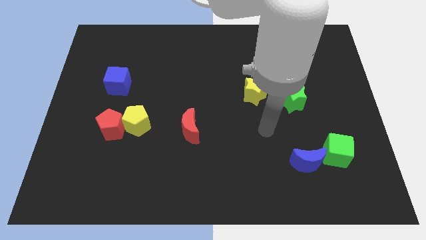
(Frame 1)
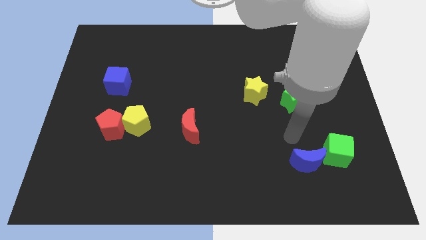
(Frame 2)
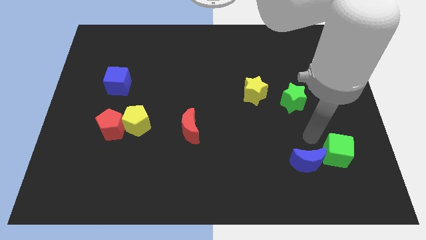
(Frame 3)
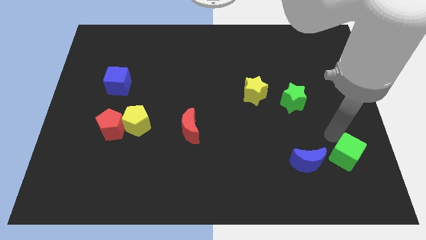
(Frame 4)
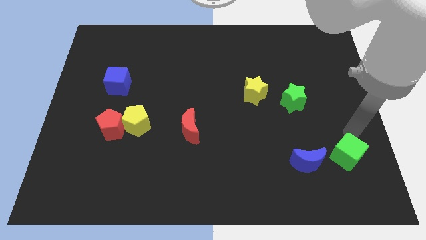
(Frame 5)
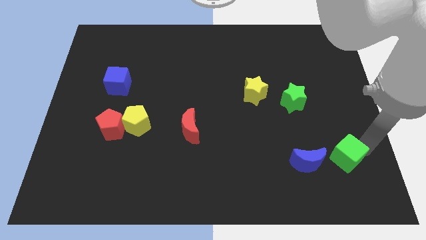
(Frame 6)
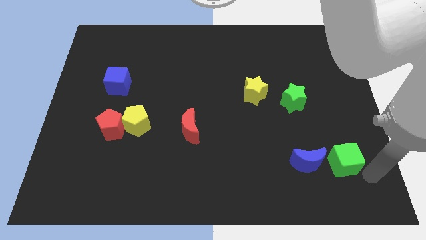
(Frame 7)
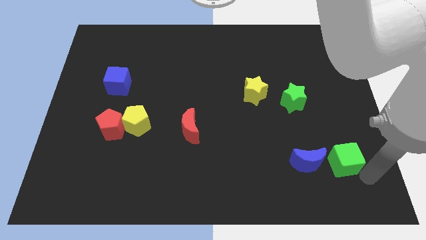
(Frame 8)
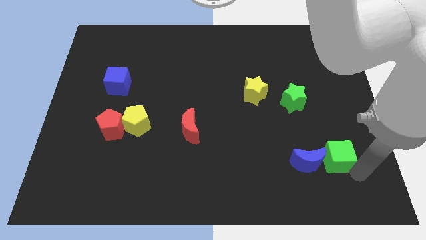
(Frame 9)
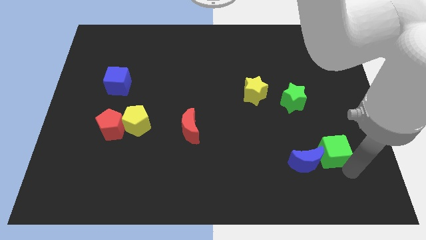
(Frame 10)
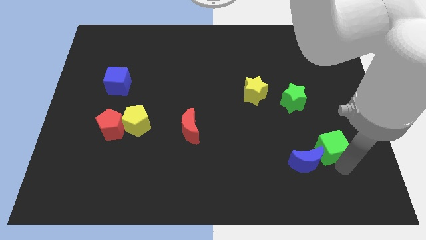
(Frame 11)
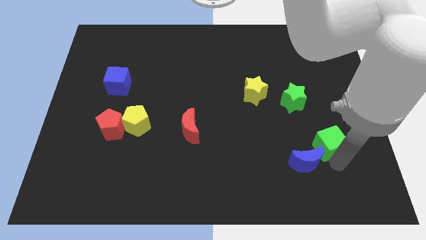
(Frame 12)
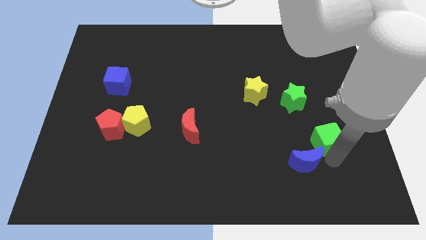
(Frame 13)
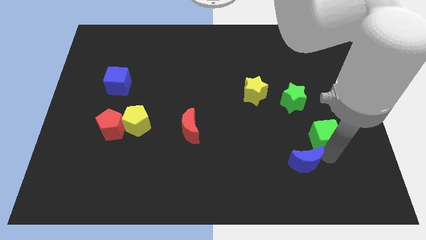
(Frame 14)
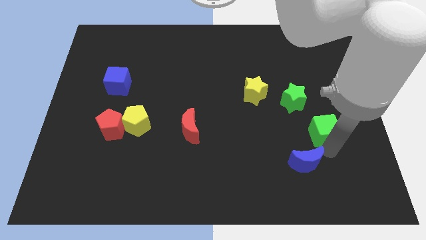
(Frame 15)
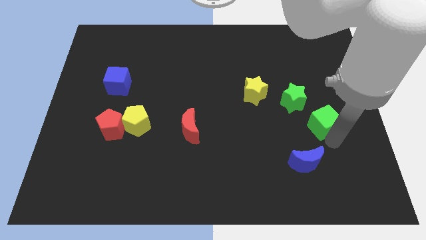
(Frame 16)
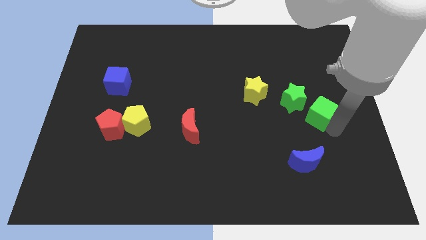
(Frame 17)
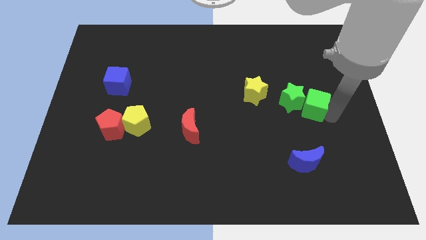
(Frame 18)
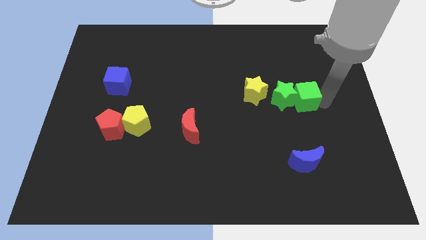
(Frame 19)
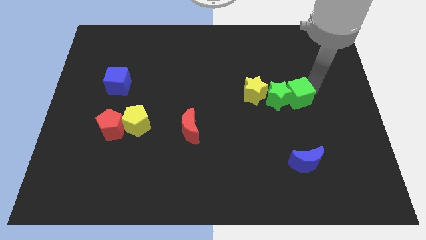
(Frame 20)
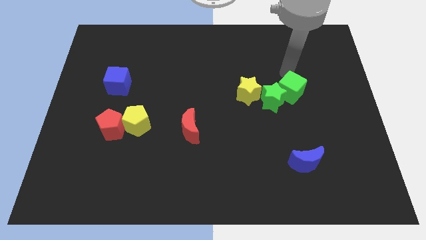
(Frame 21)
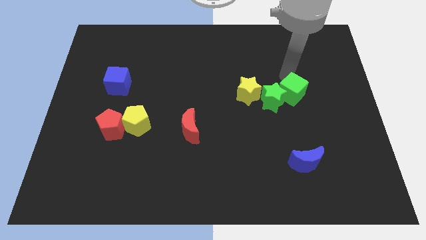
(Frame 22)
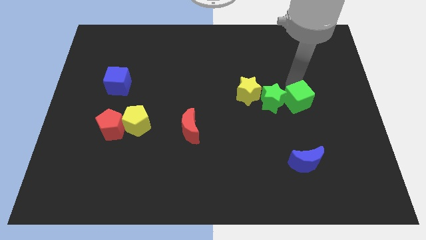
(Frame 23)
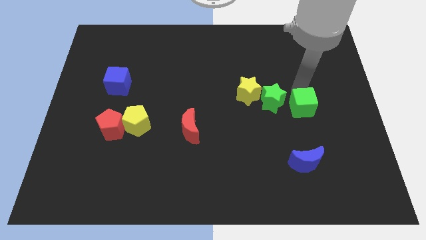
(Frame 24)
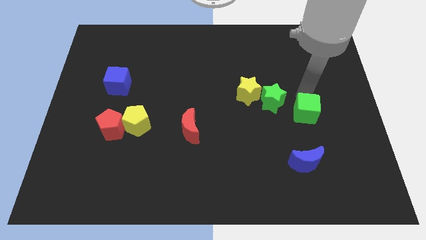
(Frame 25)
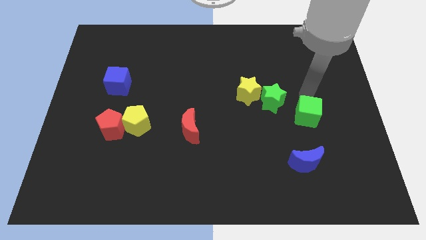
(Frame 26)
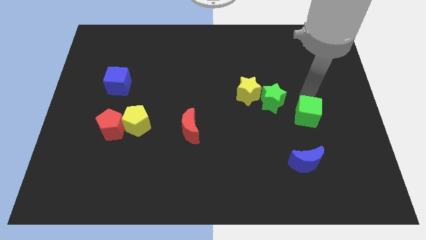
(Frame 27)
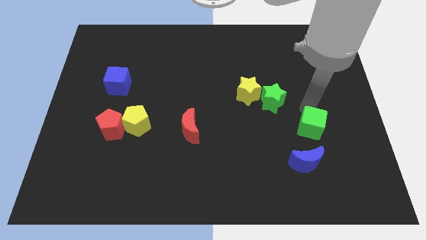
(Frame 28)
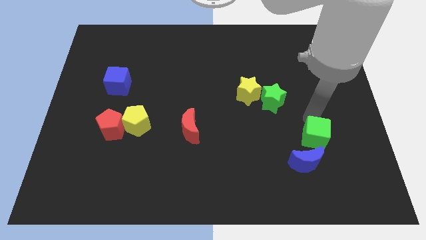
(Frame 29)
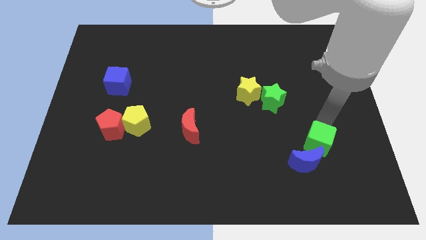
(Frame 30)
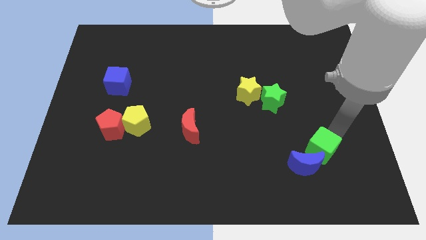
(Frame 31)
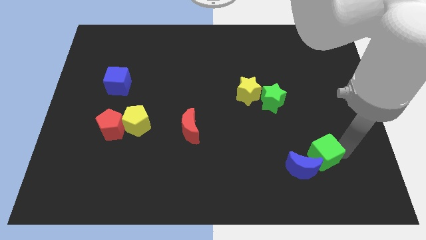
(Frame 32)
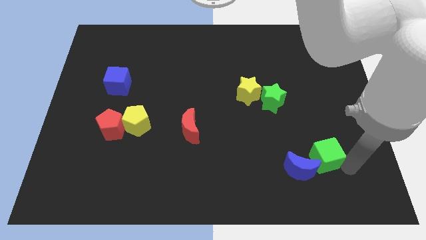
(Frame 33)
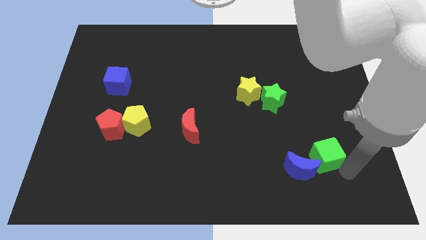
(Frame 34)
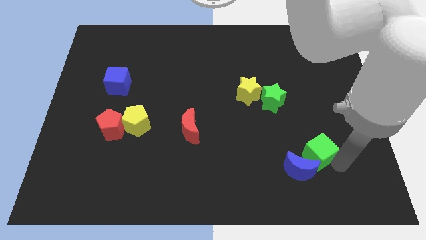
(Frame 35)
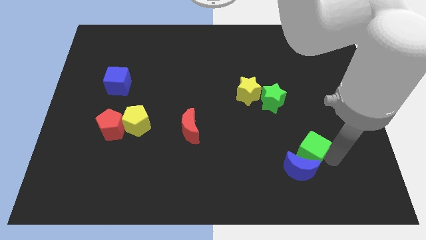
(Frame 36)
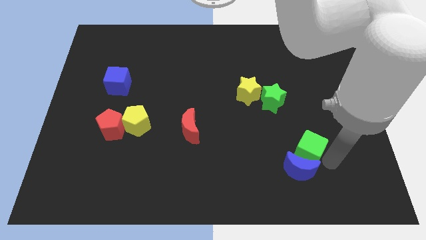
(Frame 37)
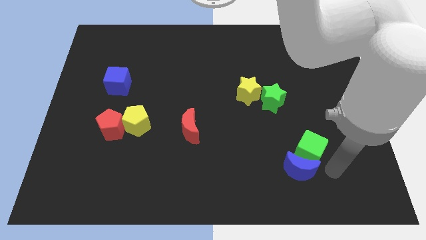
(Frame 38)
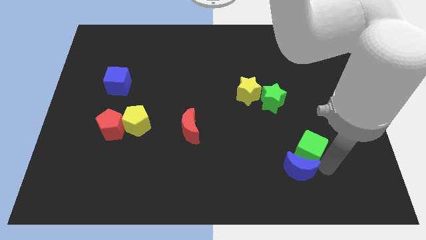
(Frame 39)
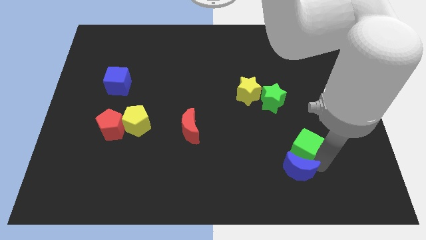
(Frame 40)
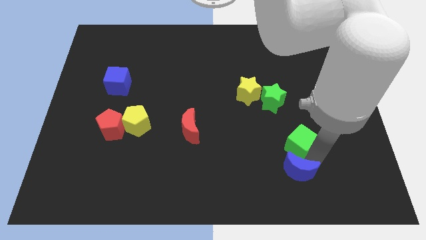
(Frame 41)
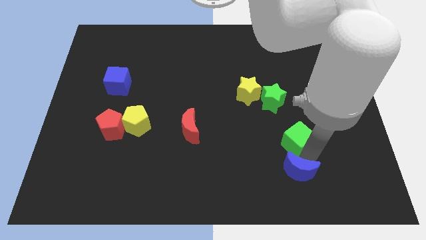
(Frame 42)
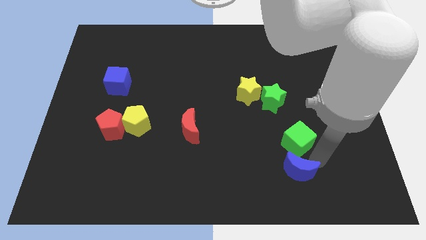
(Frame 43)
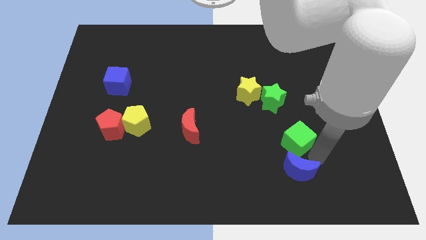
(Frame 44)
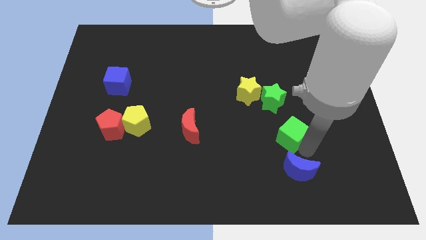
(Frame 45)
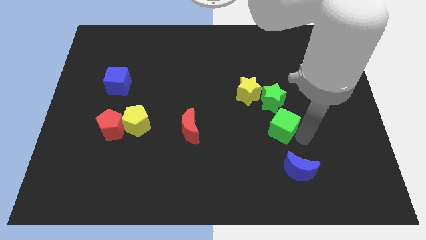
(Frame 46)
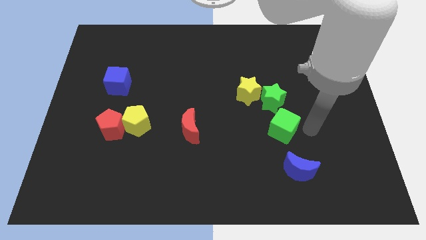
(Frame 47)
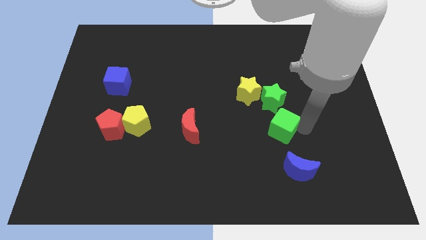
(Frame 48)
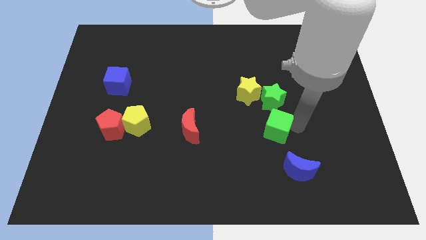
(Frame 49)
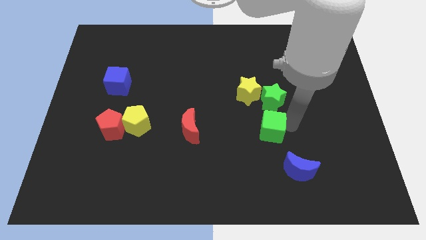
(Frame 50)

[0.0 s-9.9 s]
push the green cube to the bottom of the yellow star

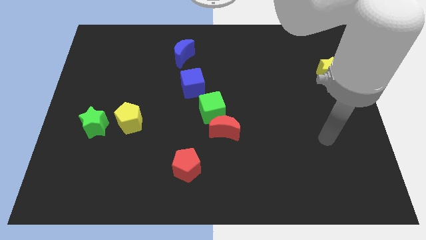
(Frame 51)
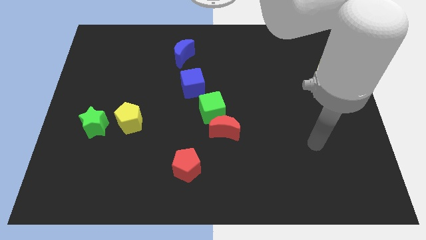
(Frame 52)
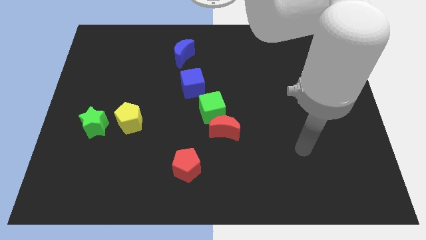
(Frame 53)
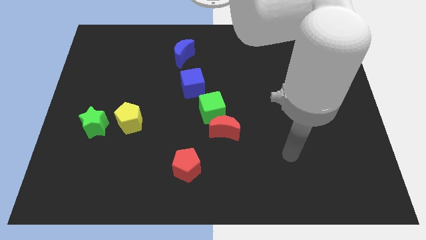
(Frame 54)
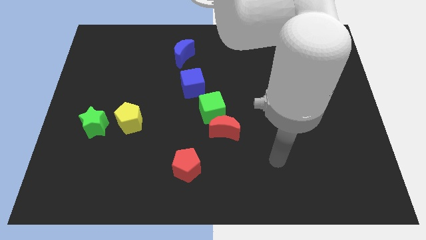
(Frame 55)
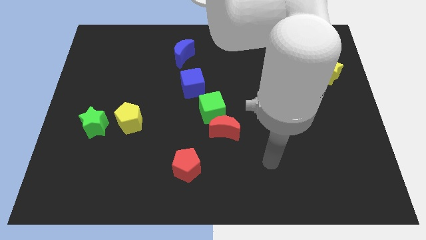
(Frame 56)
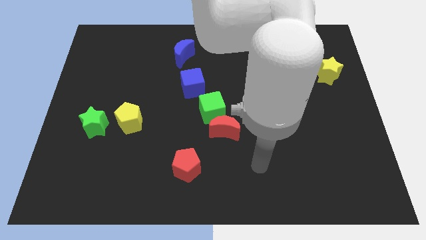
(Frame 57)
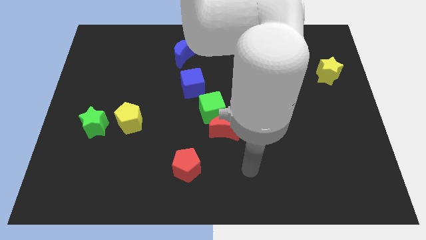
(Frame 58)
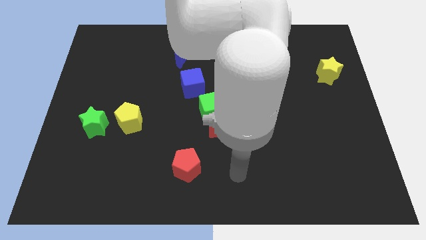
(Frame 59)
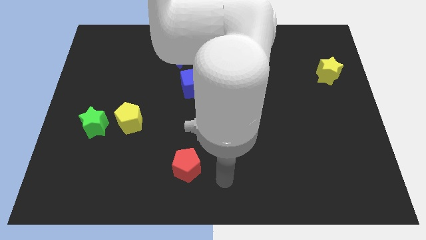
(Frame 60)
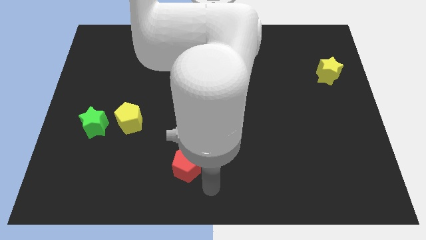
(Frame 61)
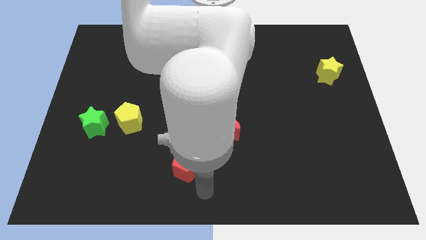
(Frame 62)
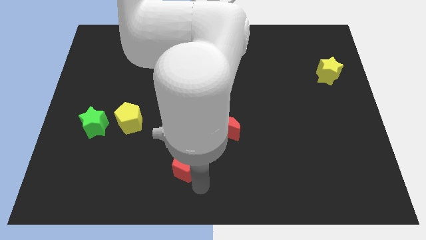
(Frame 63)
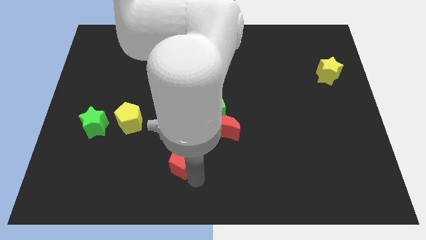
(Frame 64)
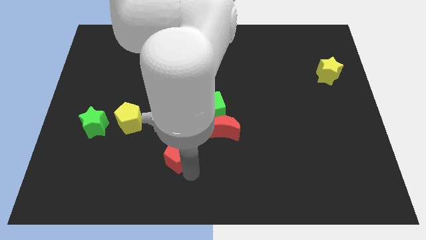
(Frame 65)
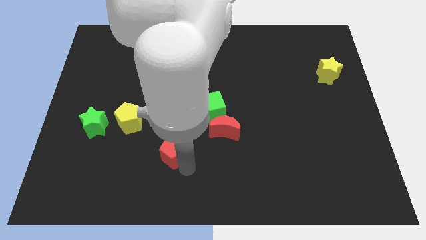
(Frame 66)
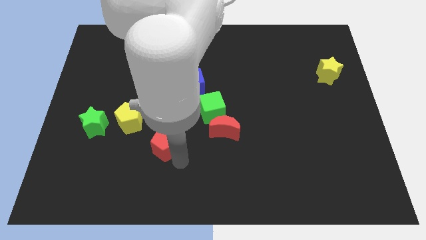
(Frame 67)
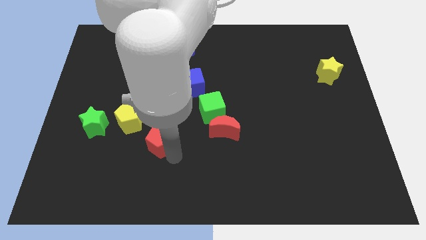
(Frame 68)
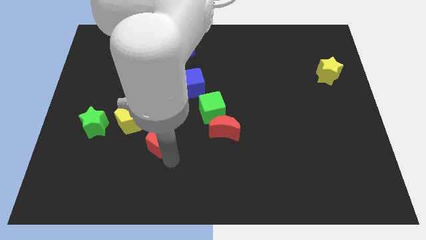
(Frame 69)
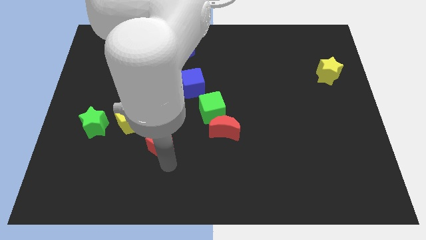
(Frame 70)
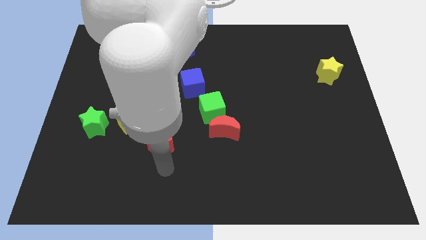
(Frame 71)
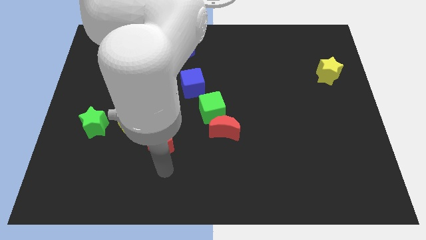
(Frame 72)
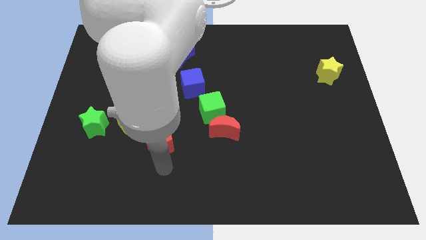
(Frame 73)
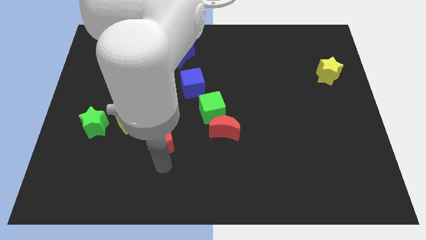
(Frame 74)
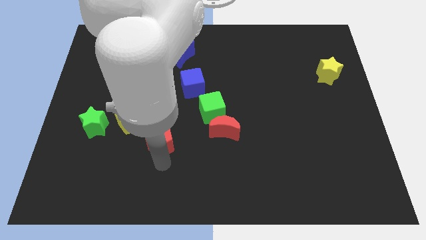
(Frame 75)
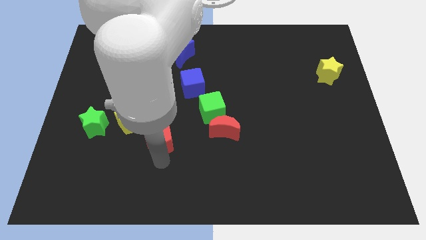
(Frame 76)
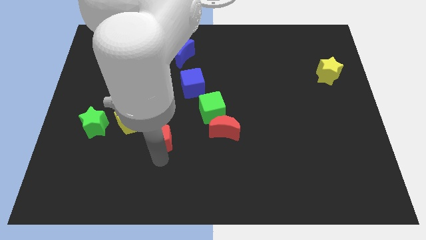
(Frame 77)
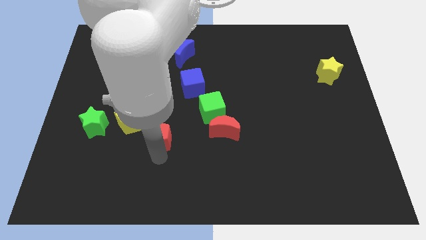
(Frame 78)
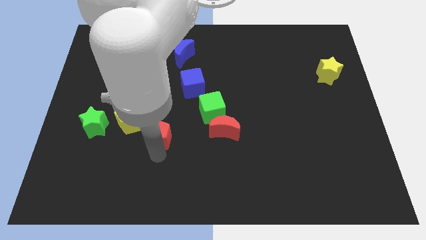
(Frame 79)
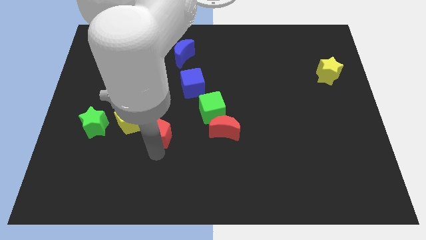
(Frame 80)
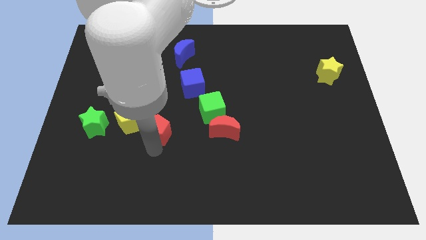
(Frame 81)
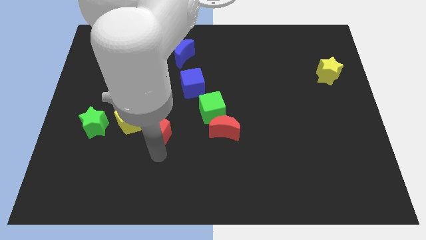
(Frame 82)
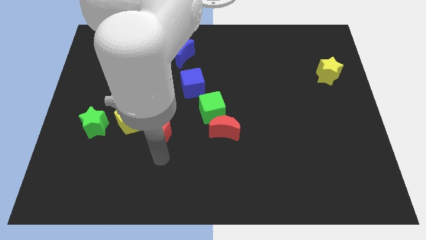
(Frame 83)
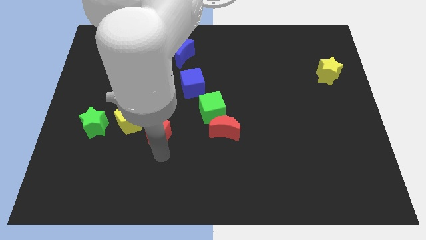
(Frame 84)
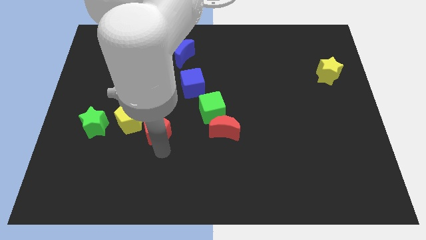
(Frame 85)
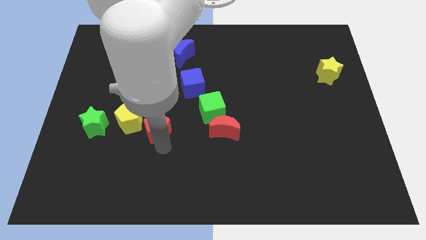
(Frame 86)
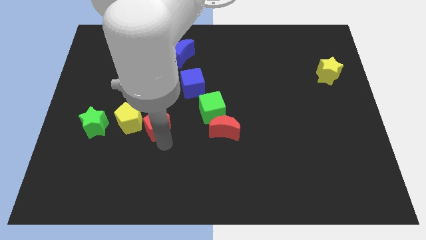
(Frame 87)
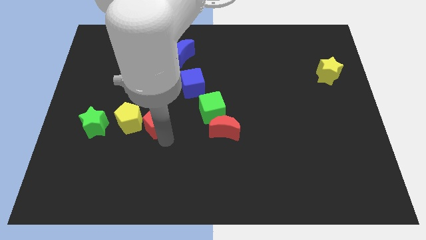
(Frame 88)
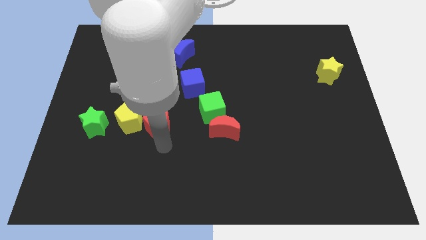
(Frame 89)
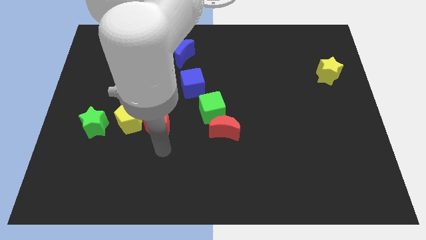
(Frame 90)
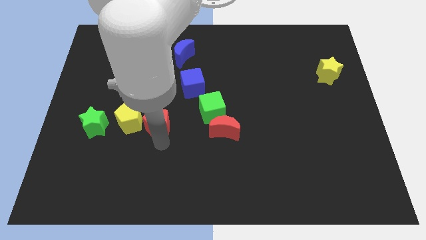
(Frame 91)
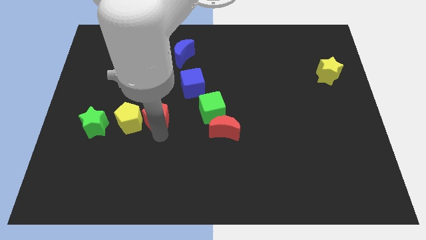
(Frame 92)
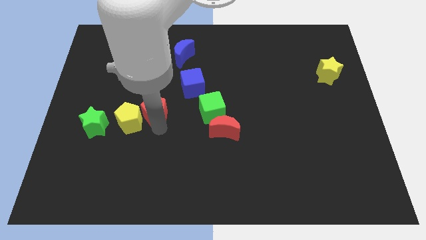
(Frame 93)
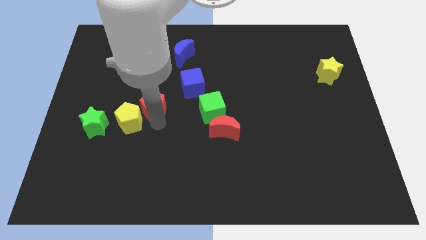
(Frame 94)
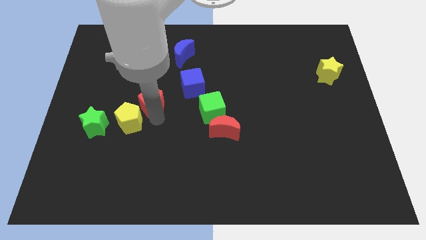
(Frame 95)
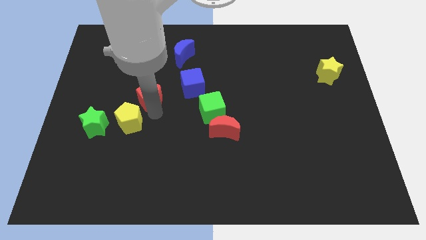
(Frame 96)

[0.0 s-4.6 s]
put the red pentagon left of the blue cube
